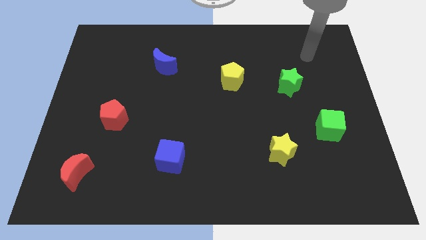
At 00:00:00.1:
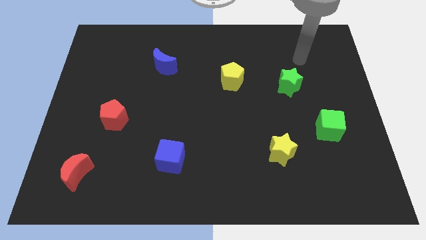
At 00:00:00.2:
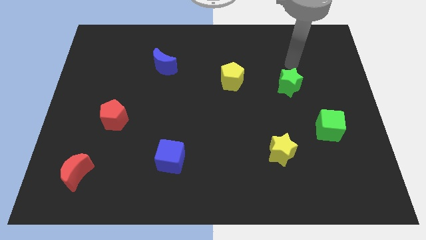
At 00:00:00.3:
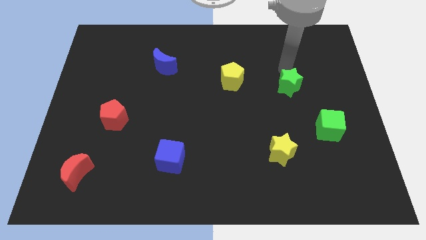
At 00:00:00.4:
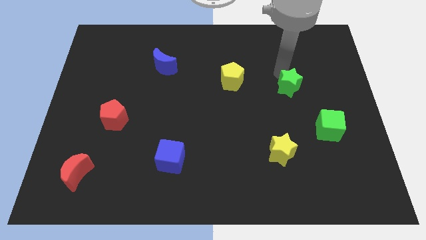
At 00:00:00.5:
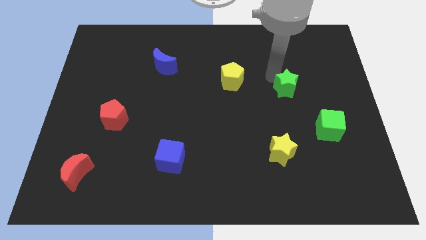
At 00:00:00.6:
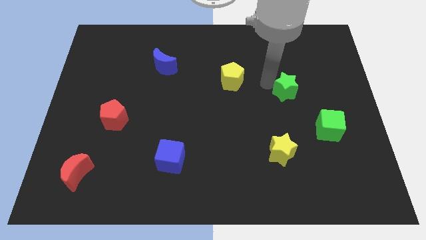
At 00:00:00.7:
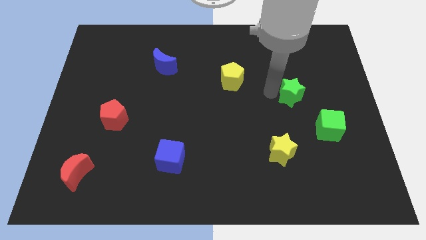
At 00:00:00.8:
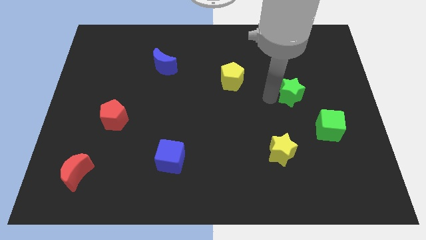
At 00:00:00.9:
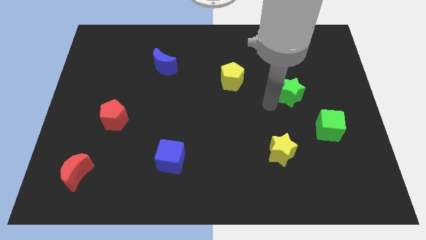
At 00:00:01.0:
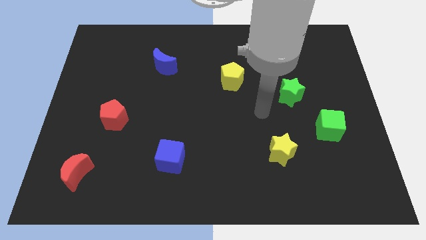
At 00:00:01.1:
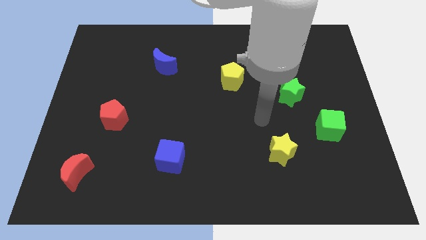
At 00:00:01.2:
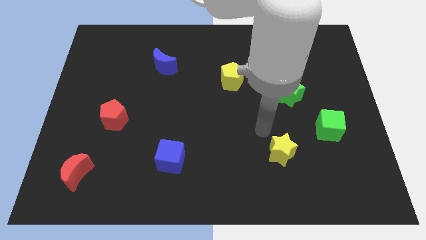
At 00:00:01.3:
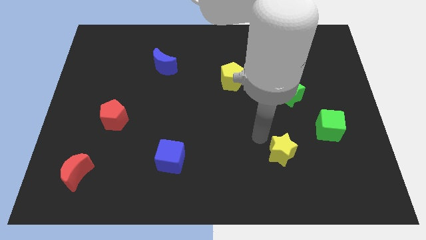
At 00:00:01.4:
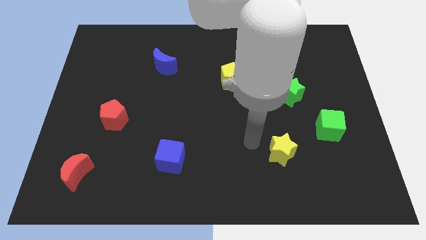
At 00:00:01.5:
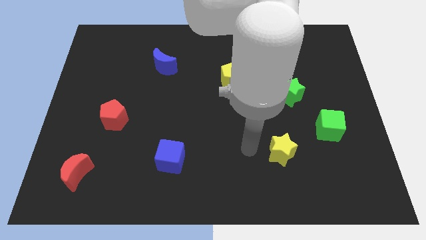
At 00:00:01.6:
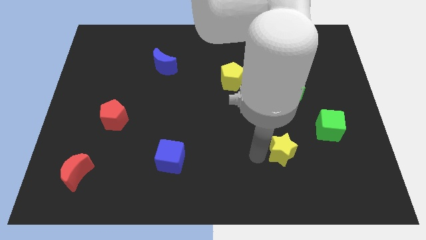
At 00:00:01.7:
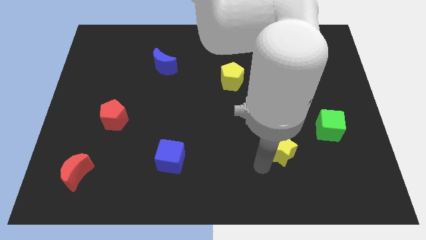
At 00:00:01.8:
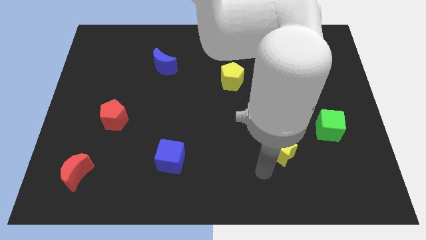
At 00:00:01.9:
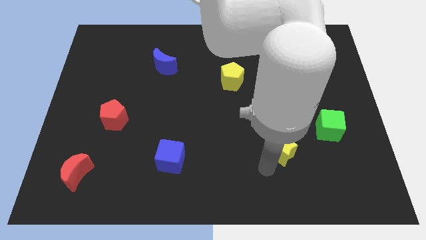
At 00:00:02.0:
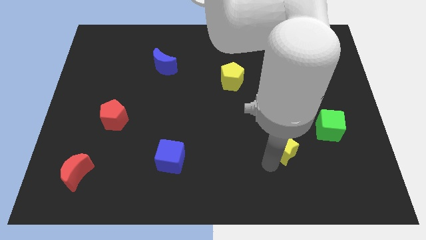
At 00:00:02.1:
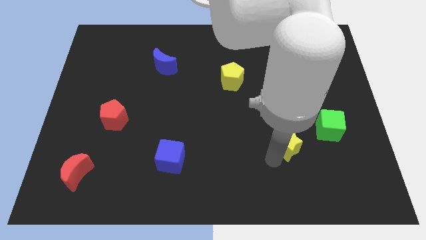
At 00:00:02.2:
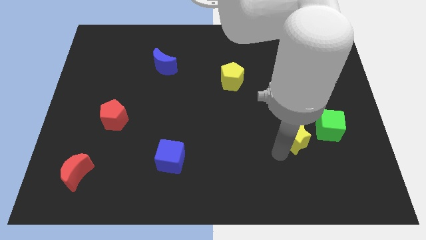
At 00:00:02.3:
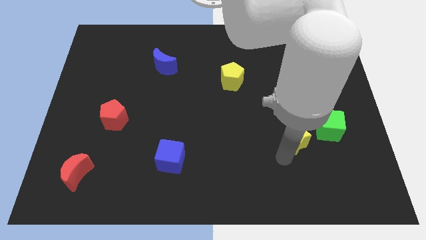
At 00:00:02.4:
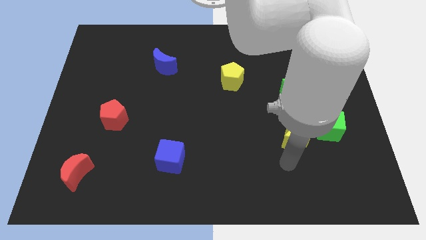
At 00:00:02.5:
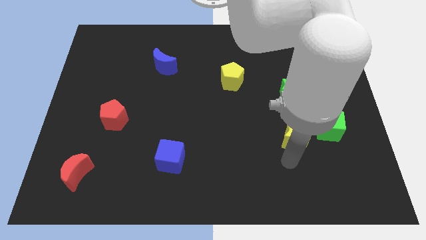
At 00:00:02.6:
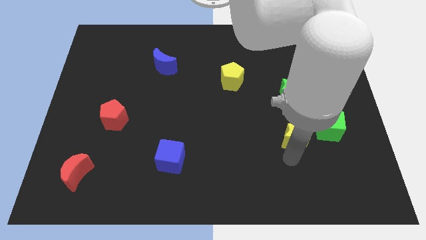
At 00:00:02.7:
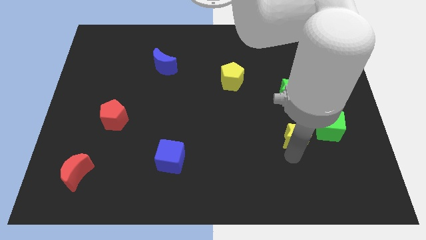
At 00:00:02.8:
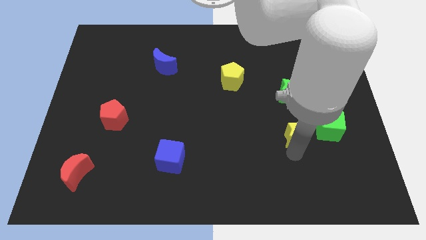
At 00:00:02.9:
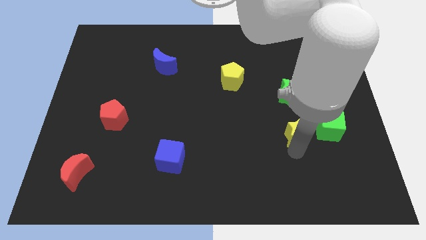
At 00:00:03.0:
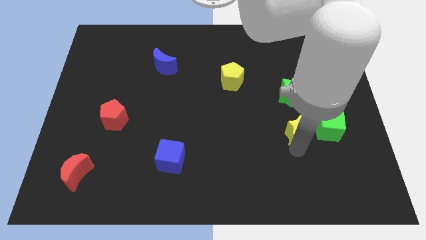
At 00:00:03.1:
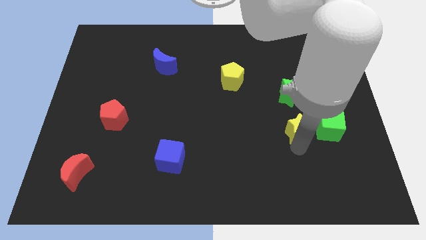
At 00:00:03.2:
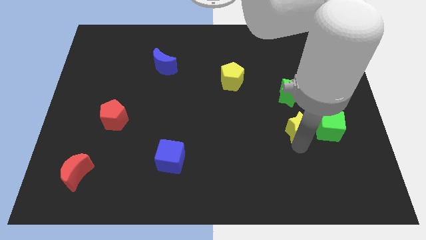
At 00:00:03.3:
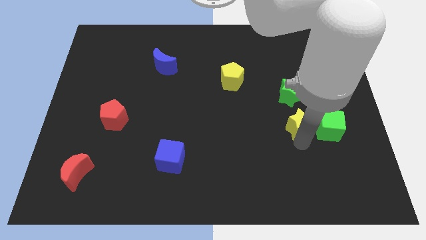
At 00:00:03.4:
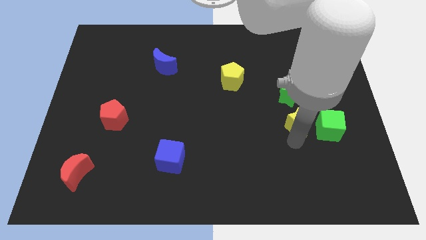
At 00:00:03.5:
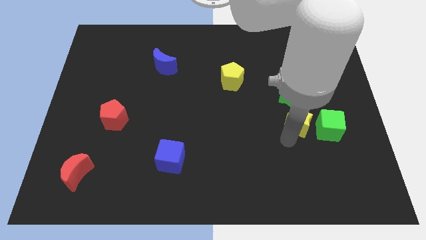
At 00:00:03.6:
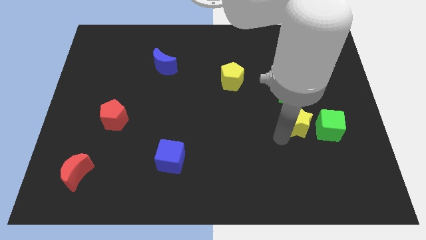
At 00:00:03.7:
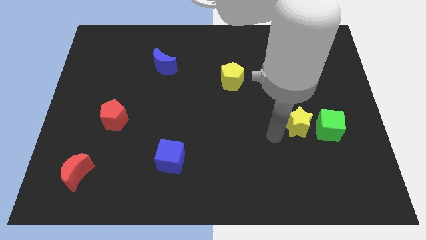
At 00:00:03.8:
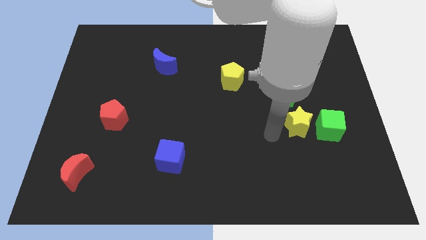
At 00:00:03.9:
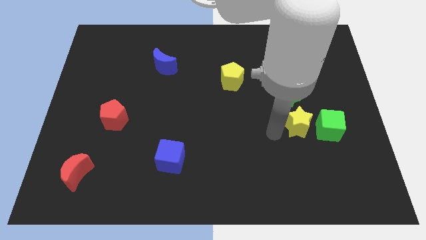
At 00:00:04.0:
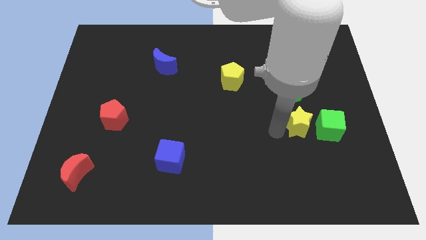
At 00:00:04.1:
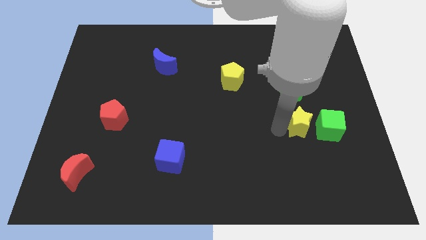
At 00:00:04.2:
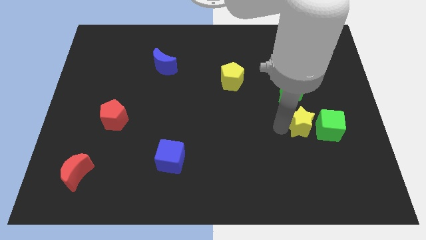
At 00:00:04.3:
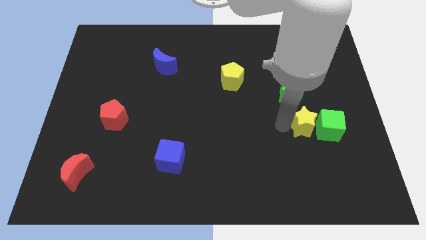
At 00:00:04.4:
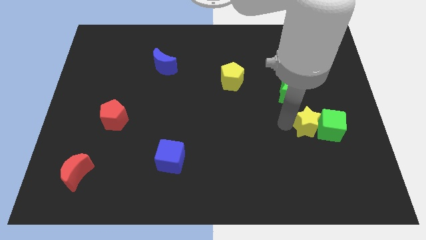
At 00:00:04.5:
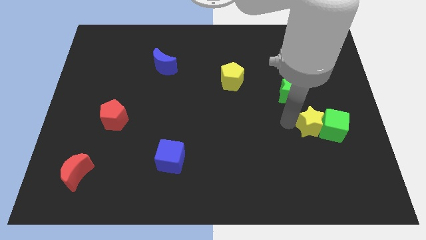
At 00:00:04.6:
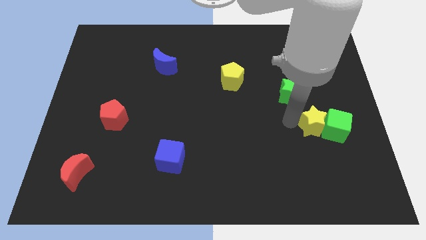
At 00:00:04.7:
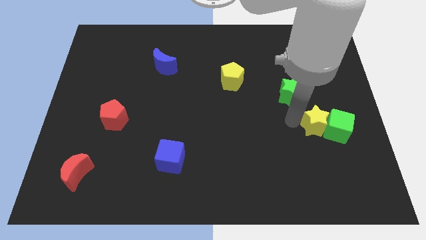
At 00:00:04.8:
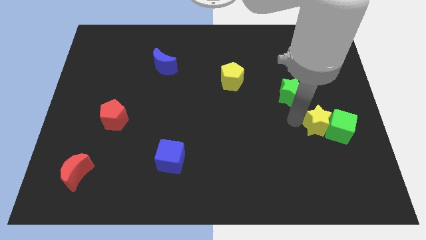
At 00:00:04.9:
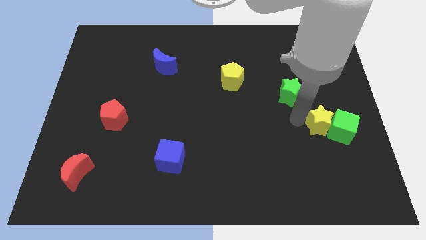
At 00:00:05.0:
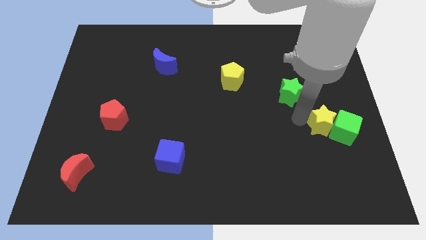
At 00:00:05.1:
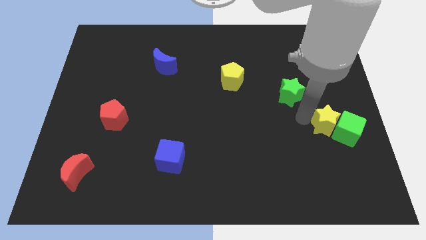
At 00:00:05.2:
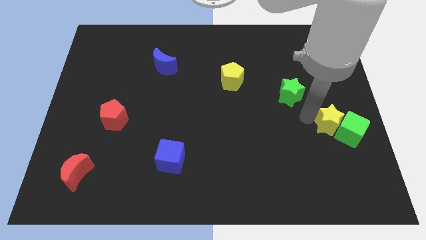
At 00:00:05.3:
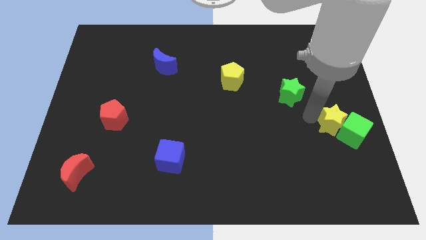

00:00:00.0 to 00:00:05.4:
move the yellow star to the right side
